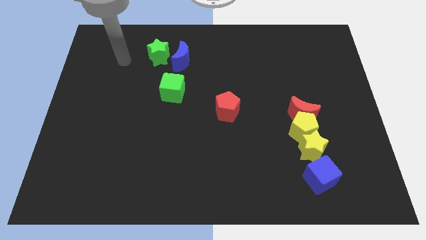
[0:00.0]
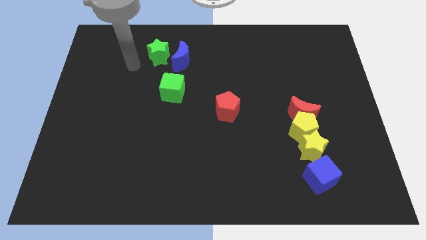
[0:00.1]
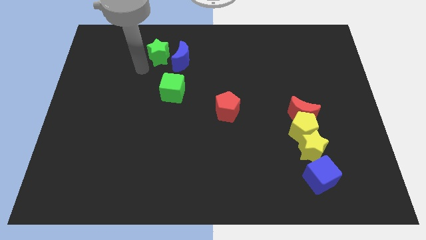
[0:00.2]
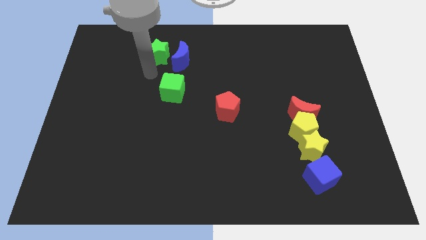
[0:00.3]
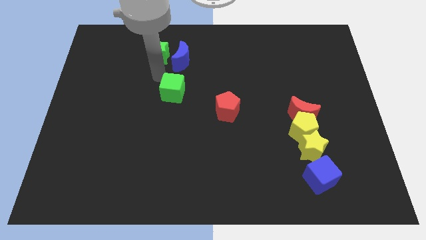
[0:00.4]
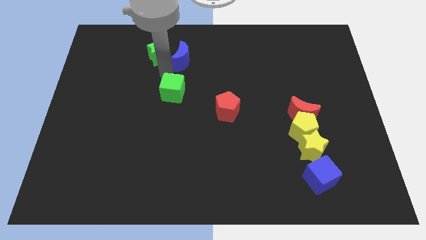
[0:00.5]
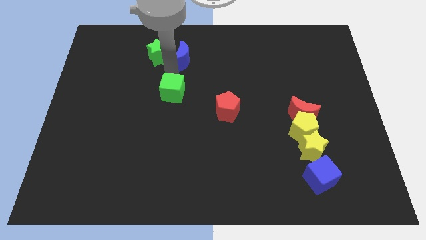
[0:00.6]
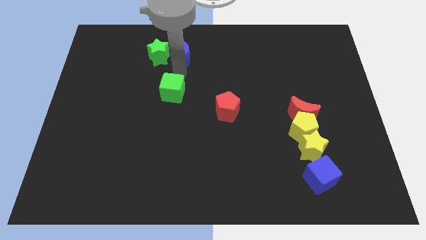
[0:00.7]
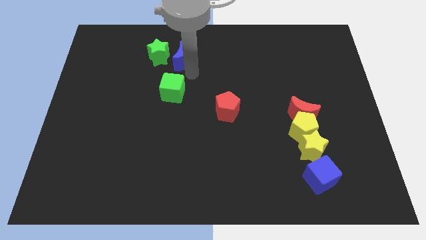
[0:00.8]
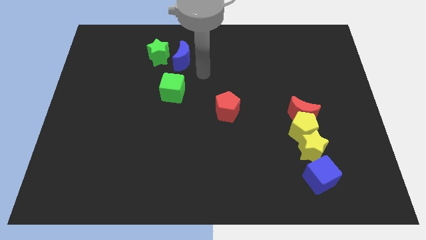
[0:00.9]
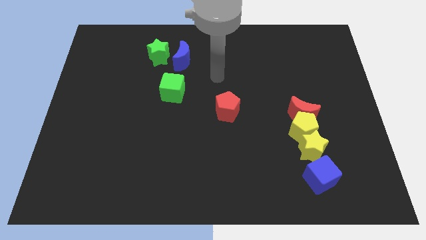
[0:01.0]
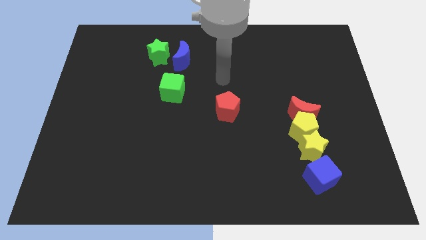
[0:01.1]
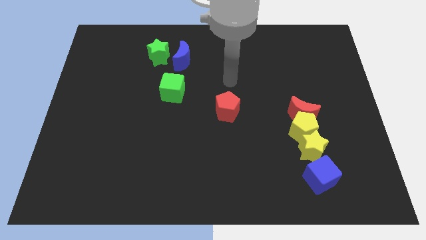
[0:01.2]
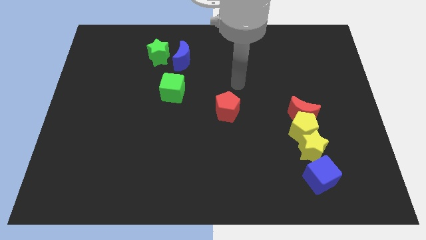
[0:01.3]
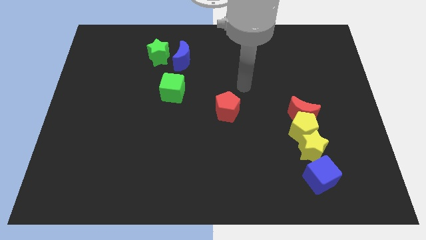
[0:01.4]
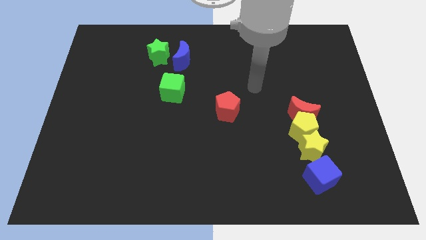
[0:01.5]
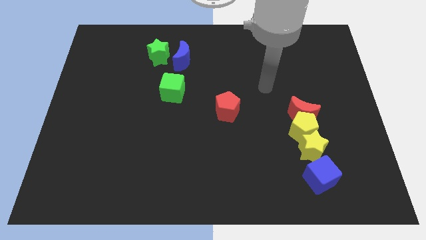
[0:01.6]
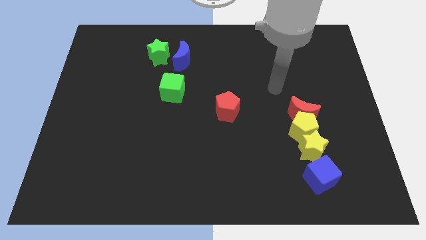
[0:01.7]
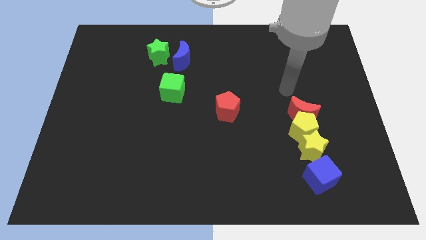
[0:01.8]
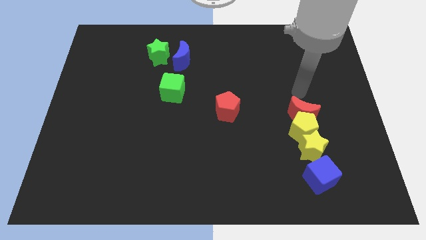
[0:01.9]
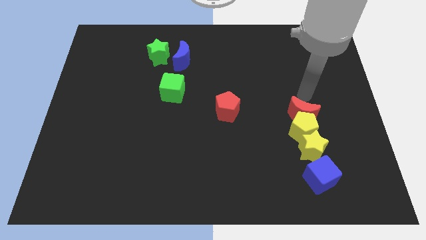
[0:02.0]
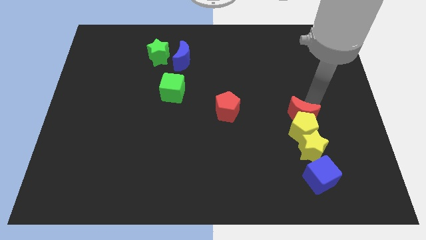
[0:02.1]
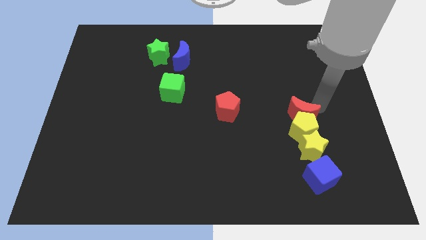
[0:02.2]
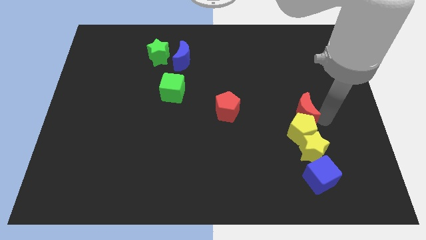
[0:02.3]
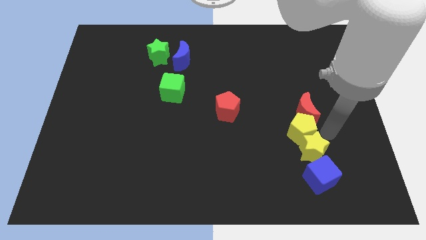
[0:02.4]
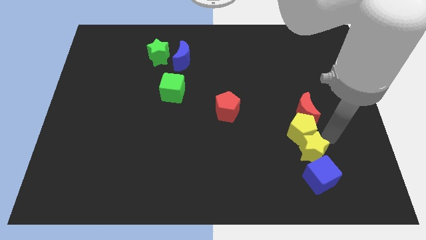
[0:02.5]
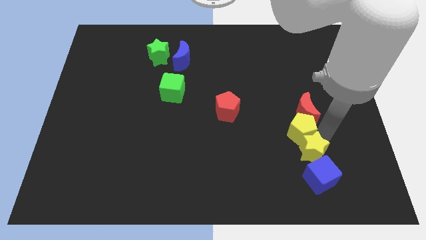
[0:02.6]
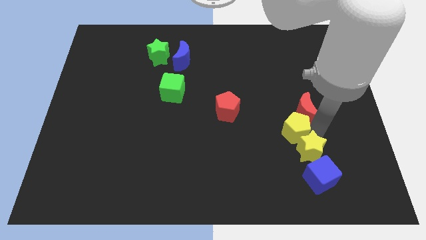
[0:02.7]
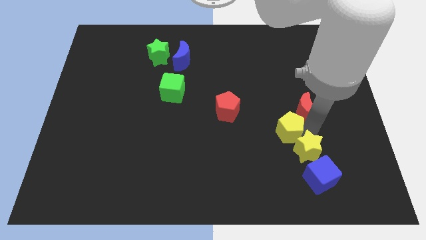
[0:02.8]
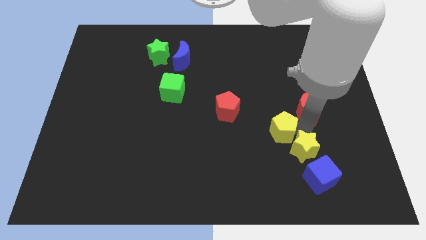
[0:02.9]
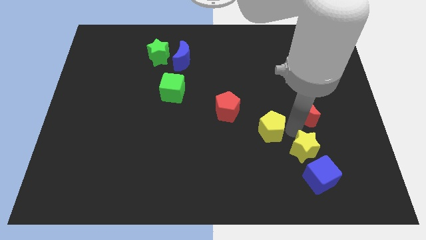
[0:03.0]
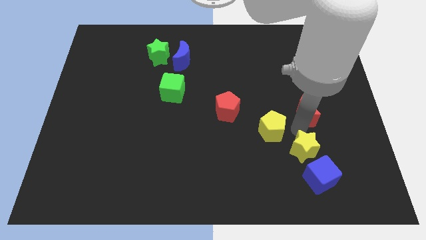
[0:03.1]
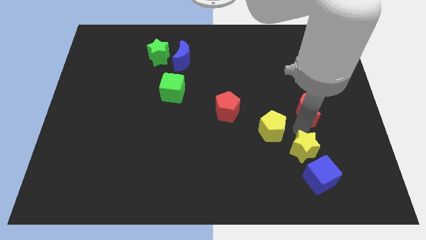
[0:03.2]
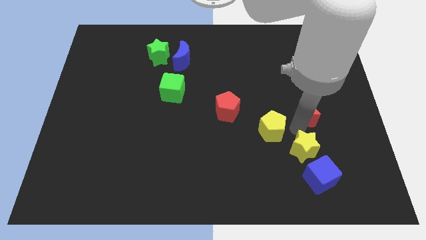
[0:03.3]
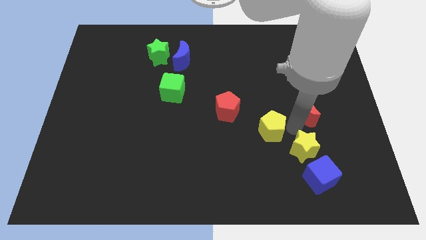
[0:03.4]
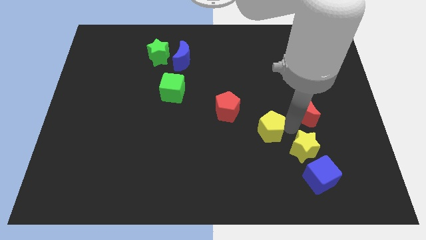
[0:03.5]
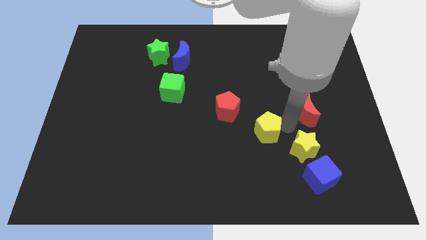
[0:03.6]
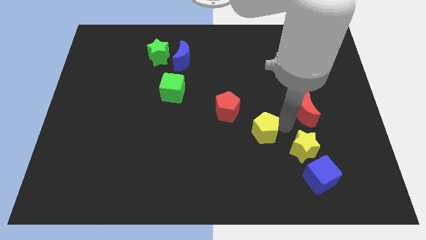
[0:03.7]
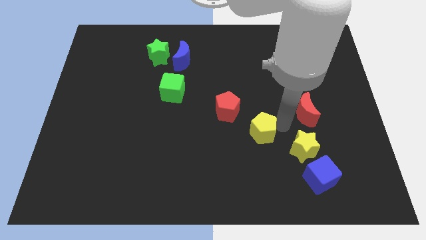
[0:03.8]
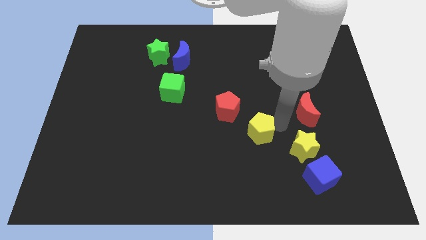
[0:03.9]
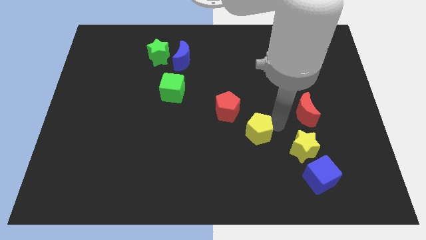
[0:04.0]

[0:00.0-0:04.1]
move the yellow pentagon away from the red moon and yellow star

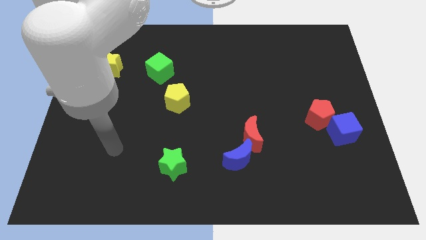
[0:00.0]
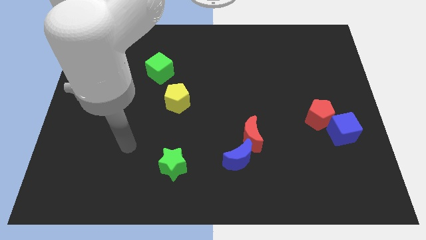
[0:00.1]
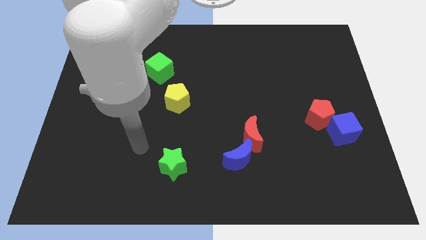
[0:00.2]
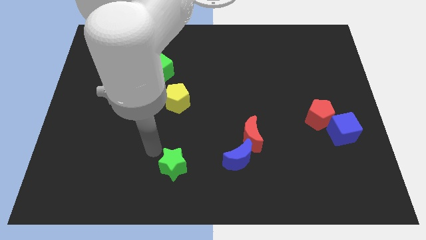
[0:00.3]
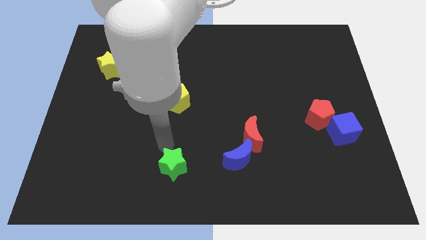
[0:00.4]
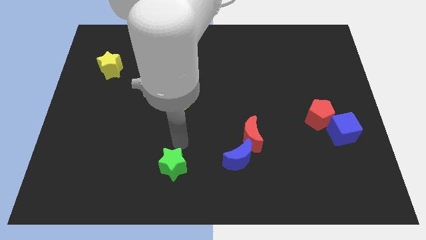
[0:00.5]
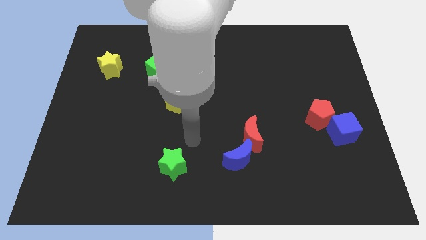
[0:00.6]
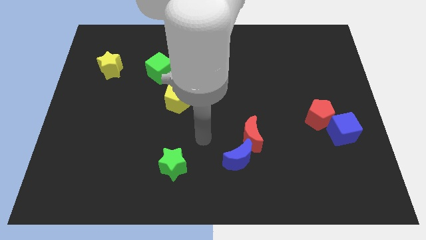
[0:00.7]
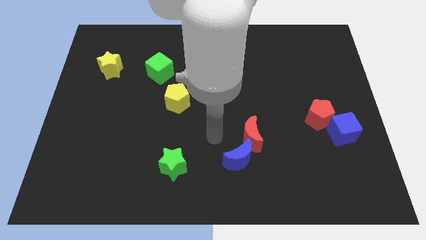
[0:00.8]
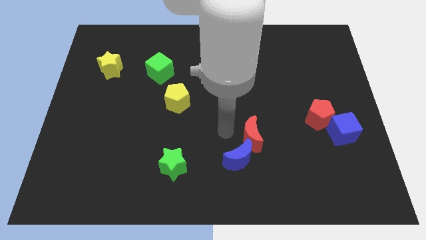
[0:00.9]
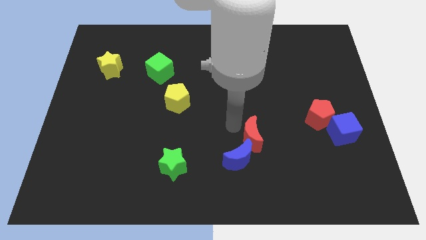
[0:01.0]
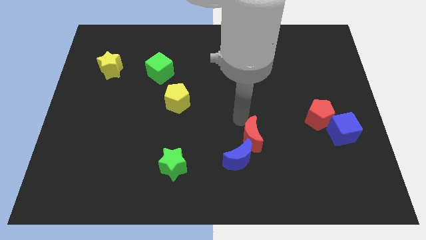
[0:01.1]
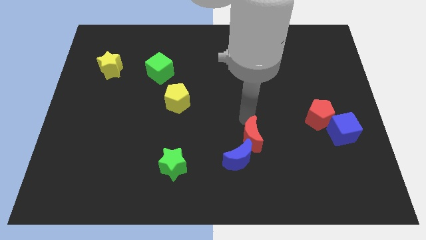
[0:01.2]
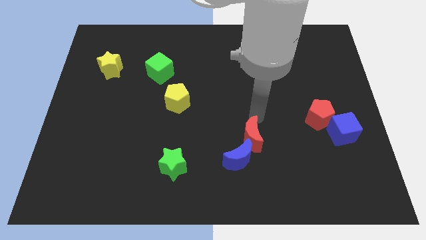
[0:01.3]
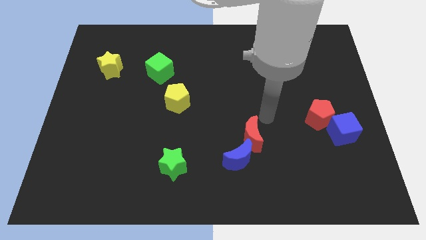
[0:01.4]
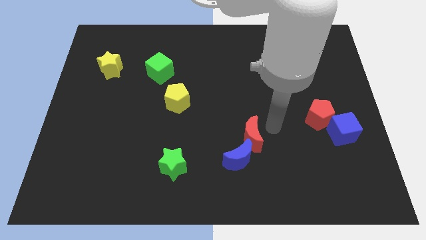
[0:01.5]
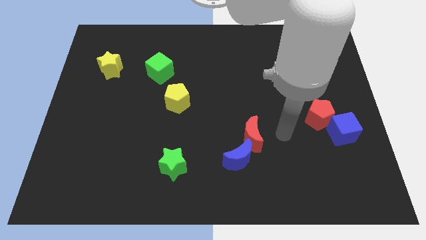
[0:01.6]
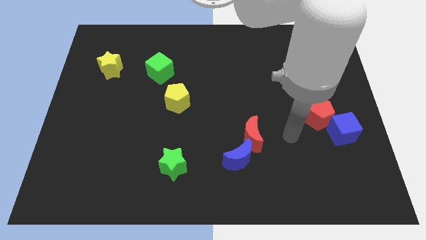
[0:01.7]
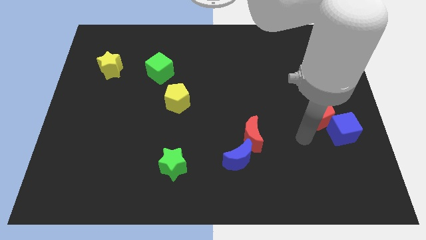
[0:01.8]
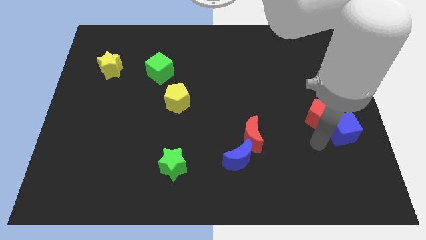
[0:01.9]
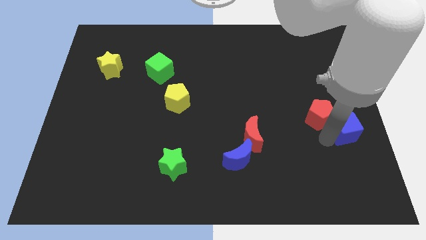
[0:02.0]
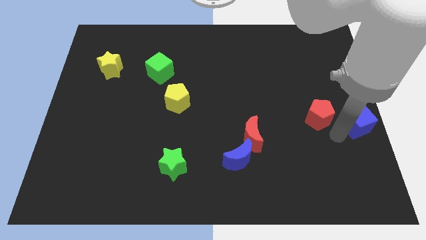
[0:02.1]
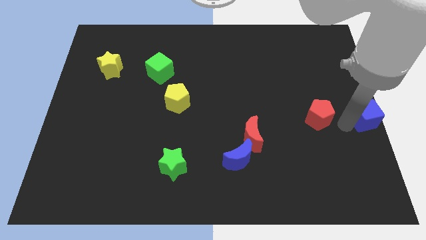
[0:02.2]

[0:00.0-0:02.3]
move the red pentagon away from the blue cube

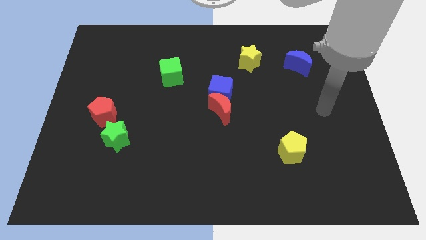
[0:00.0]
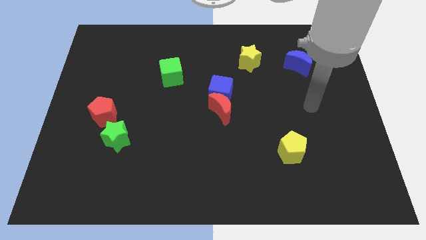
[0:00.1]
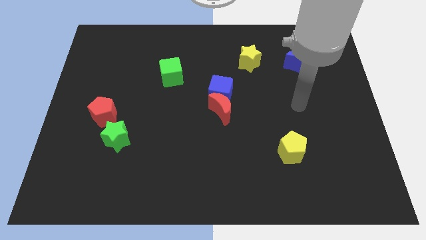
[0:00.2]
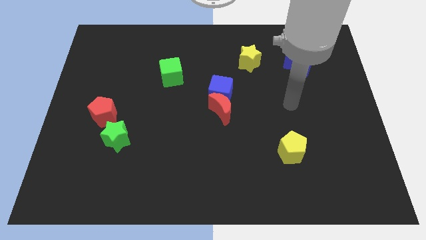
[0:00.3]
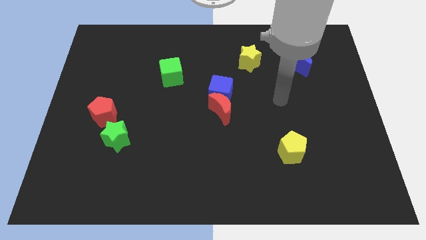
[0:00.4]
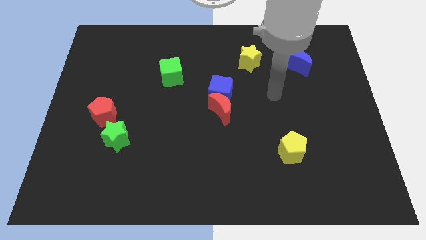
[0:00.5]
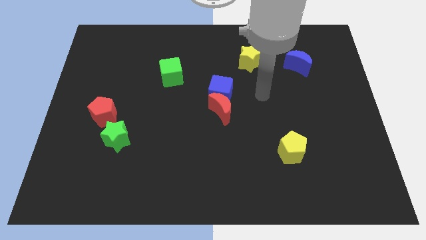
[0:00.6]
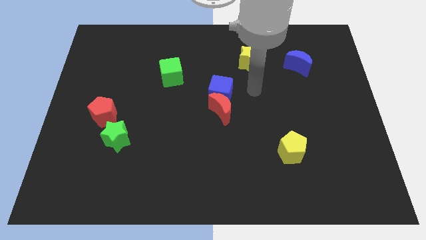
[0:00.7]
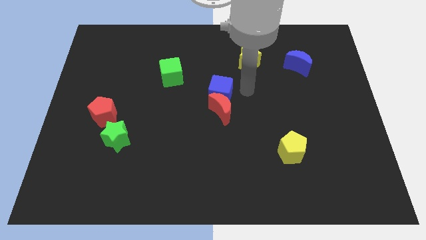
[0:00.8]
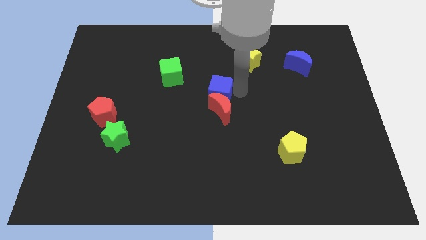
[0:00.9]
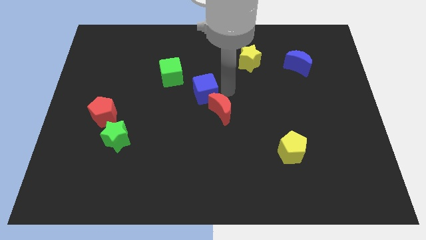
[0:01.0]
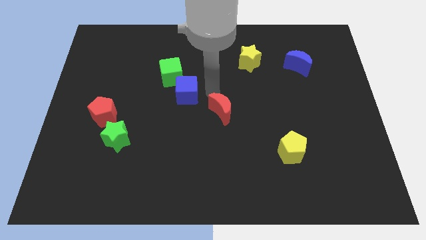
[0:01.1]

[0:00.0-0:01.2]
move the red moon away from the blue cube

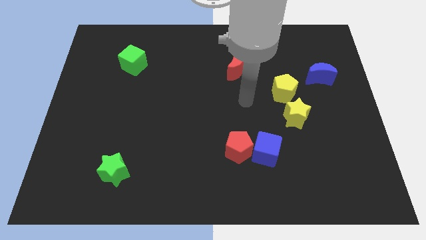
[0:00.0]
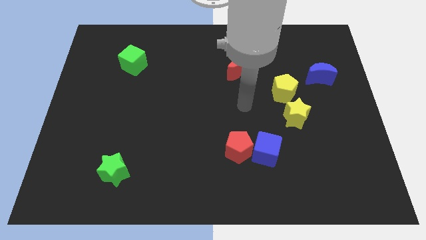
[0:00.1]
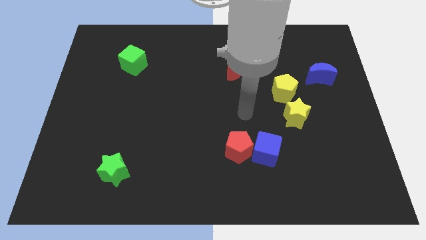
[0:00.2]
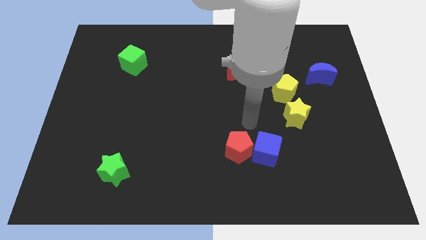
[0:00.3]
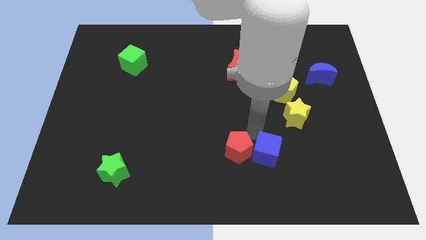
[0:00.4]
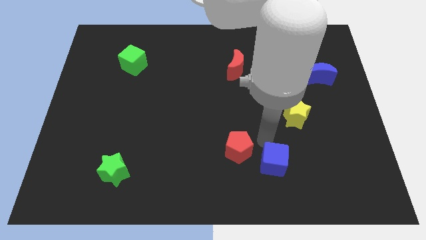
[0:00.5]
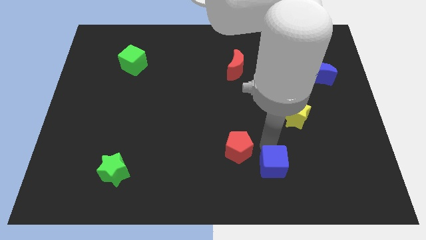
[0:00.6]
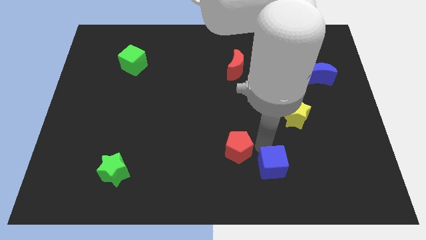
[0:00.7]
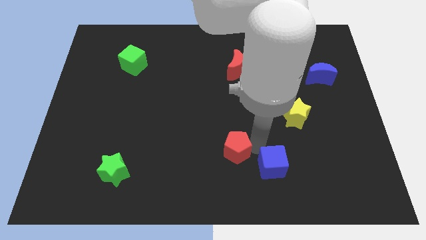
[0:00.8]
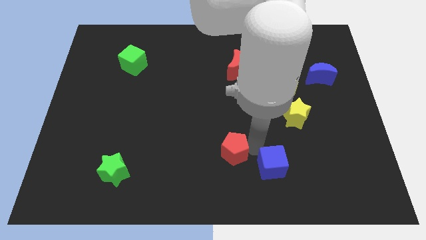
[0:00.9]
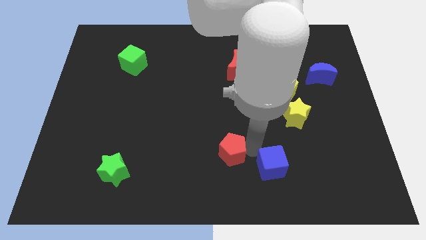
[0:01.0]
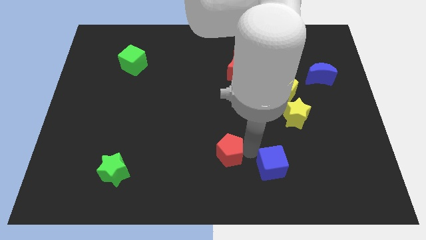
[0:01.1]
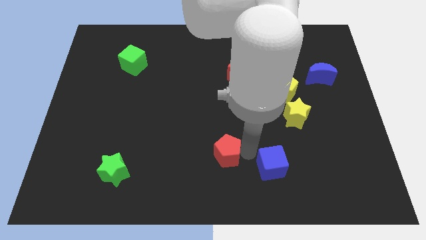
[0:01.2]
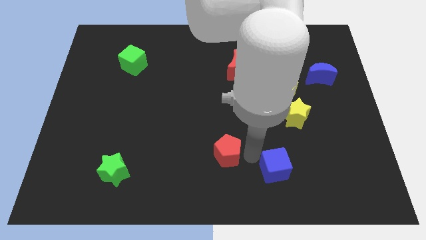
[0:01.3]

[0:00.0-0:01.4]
separate the red pentagon from the blue cube

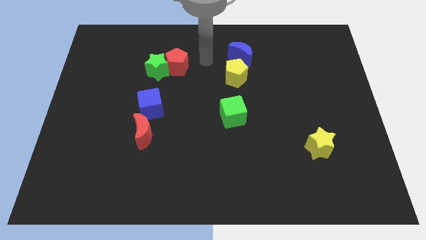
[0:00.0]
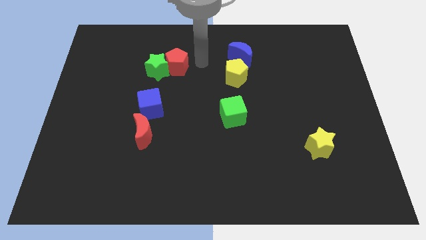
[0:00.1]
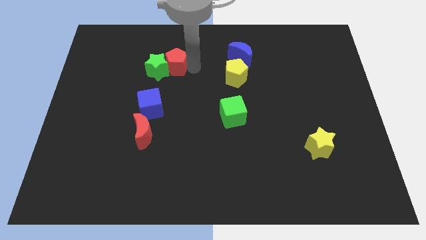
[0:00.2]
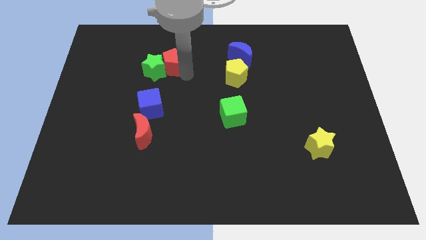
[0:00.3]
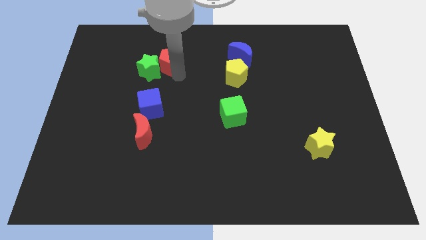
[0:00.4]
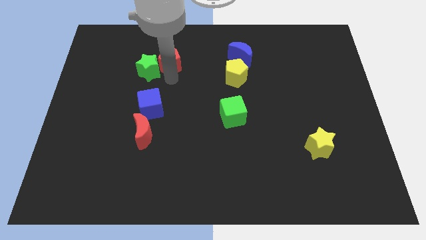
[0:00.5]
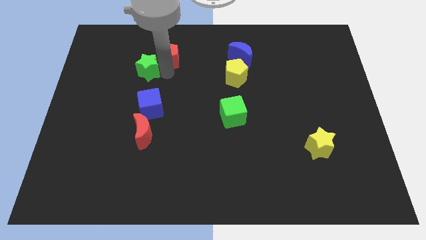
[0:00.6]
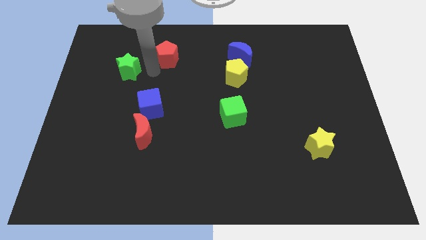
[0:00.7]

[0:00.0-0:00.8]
pull the red pentagon apart from the green star
